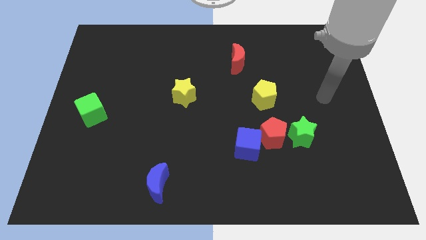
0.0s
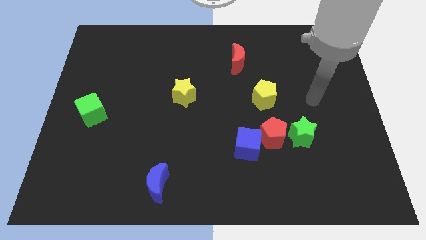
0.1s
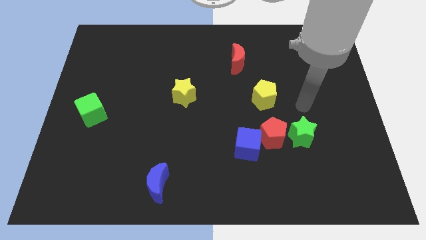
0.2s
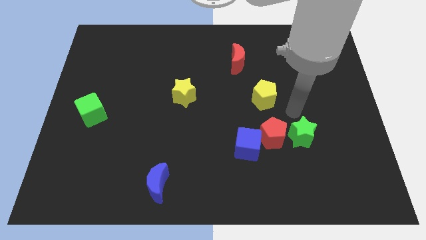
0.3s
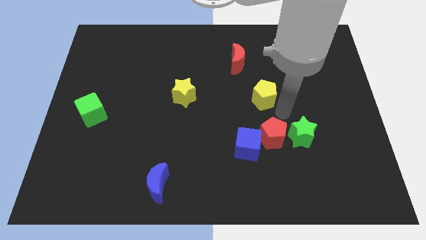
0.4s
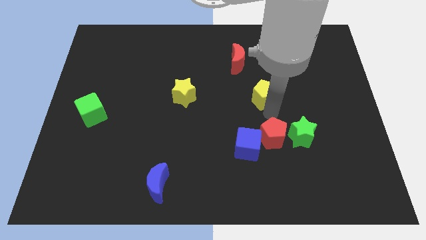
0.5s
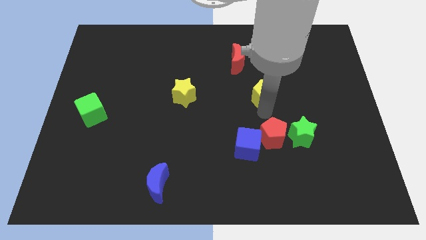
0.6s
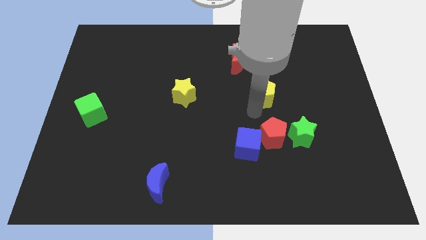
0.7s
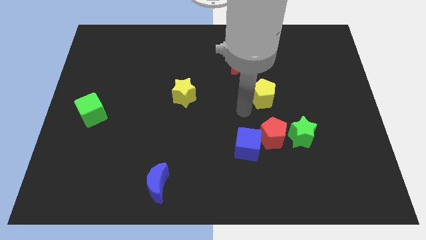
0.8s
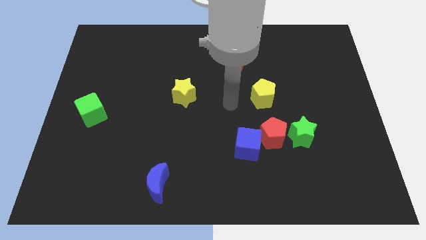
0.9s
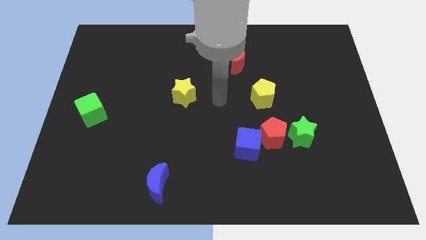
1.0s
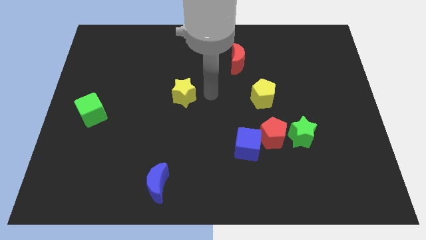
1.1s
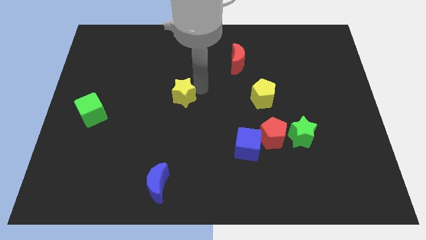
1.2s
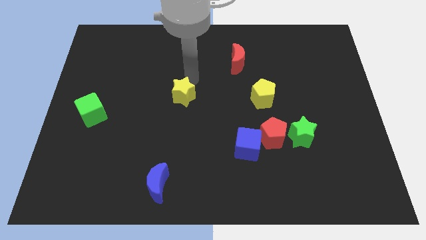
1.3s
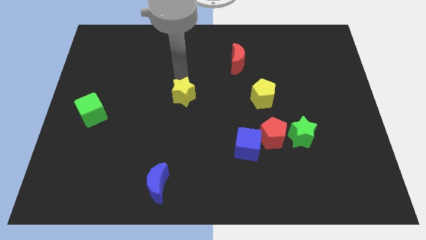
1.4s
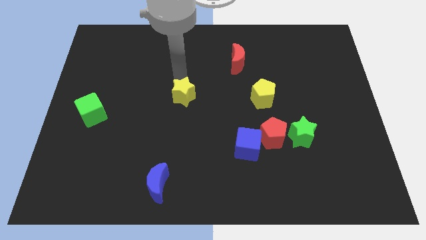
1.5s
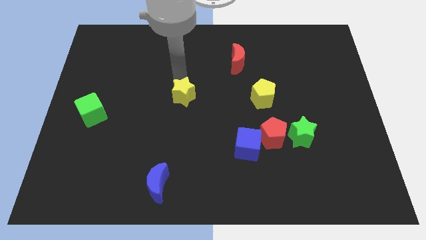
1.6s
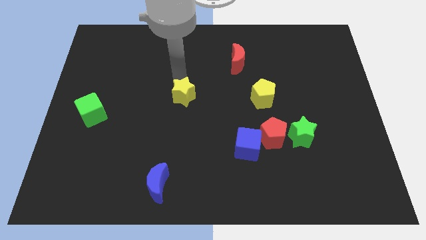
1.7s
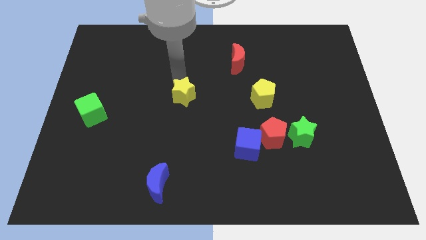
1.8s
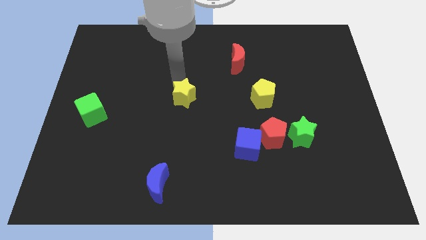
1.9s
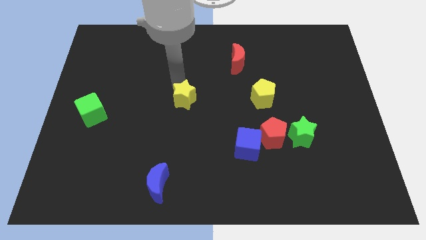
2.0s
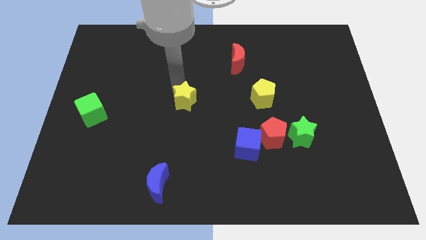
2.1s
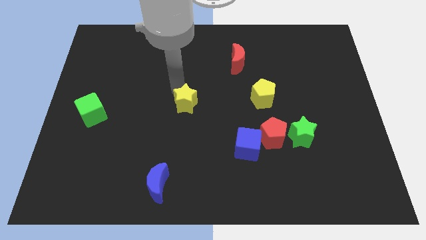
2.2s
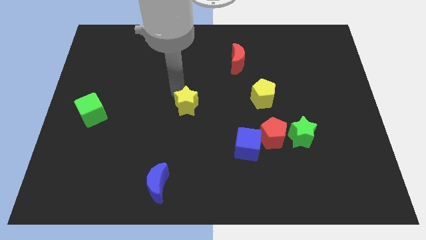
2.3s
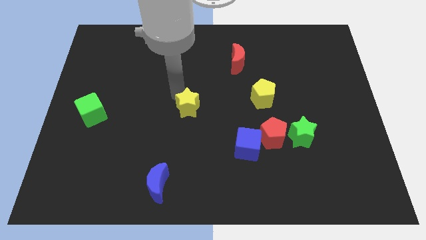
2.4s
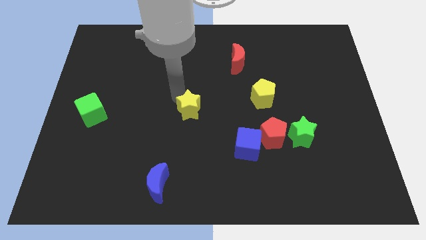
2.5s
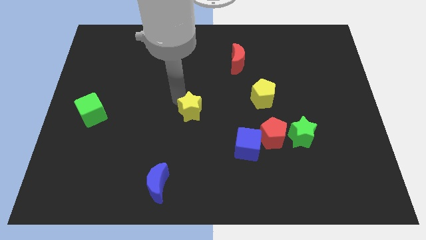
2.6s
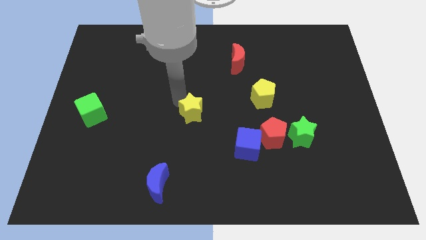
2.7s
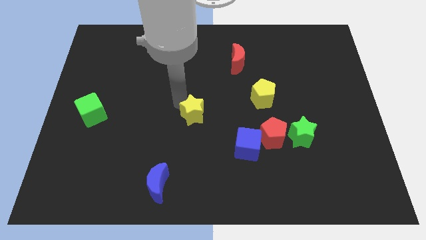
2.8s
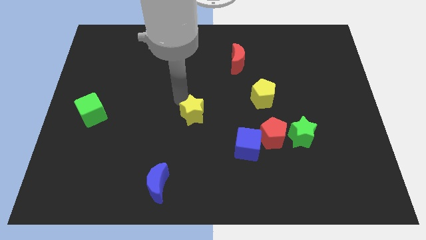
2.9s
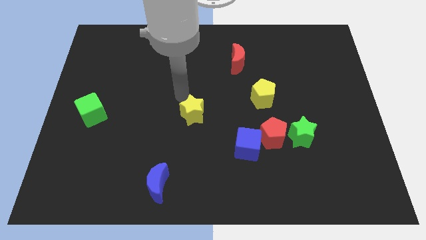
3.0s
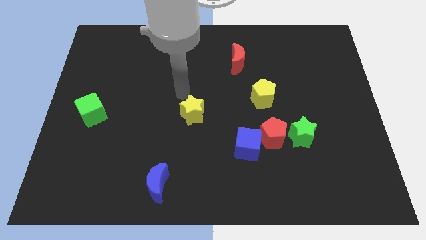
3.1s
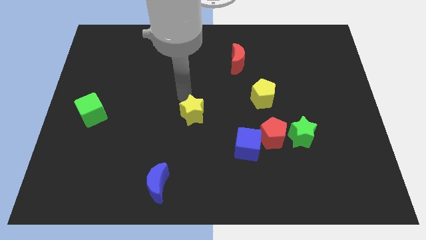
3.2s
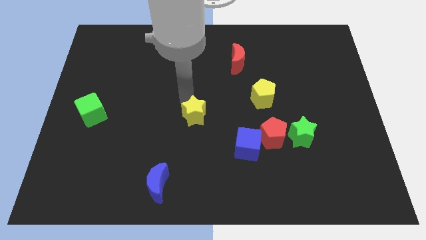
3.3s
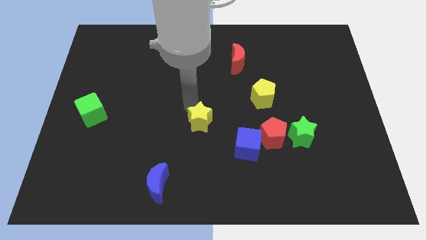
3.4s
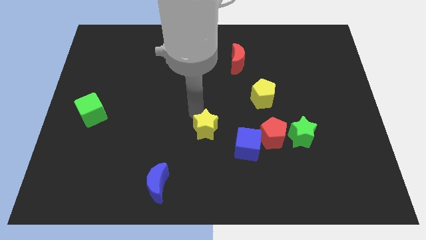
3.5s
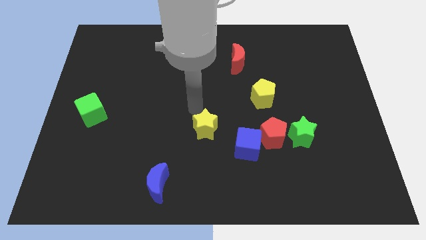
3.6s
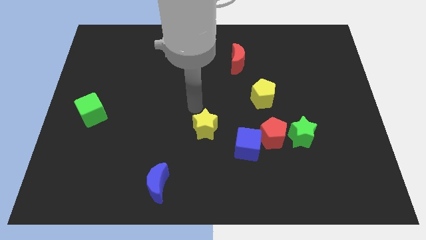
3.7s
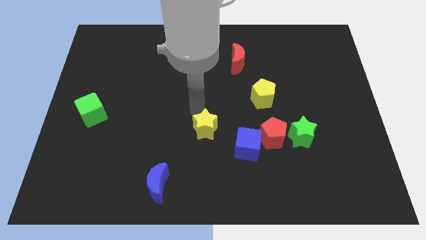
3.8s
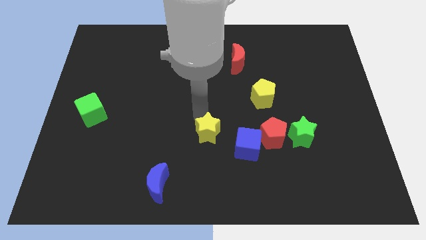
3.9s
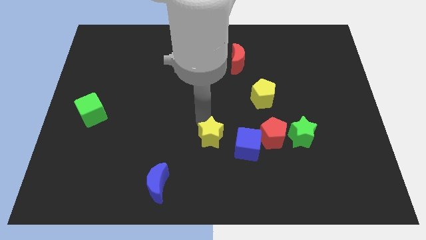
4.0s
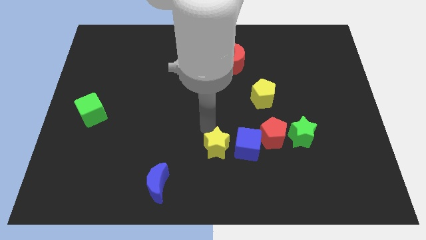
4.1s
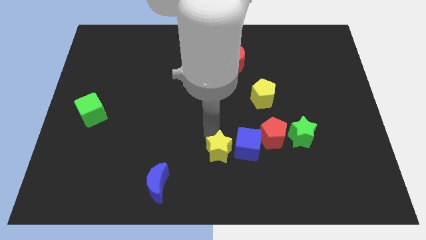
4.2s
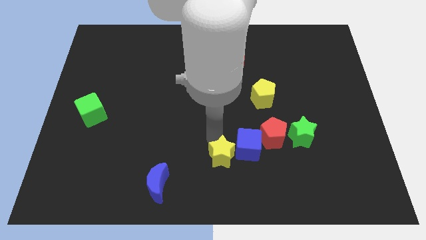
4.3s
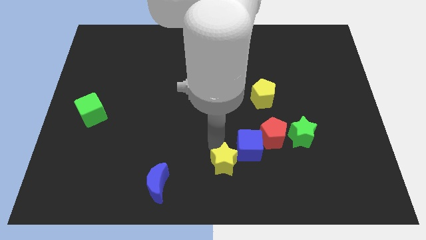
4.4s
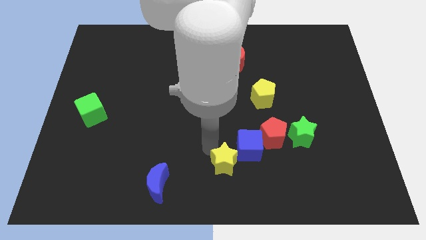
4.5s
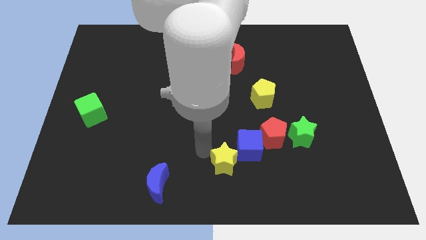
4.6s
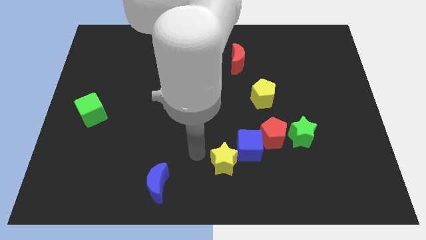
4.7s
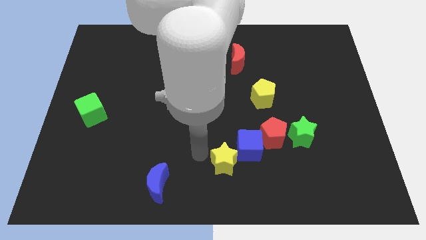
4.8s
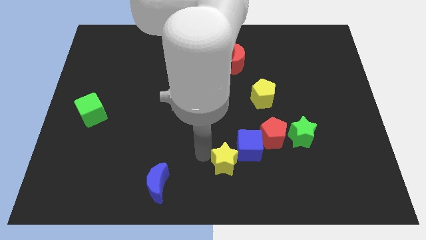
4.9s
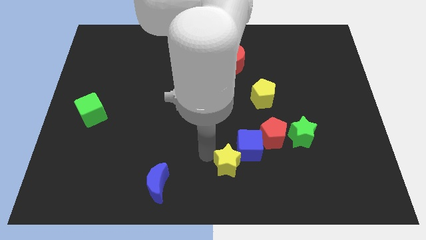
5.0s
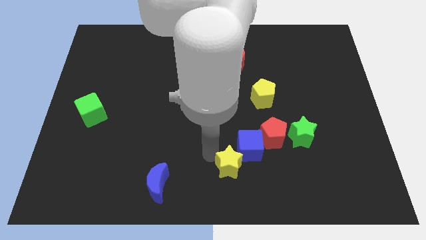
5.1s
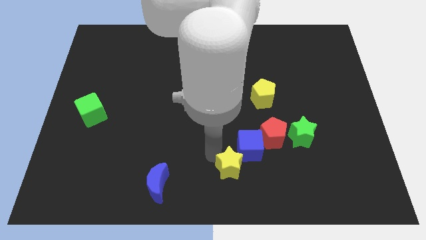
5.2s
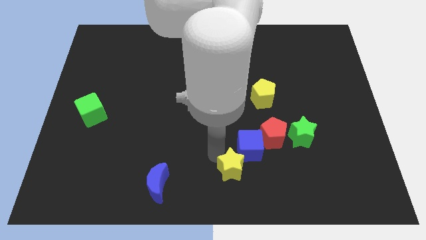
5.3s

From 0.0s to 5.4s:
push the yellow star downwards and then right

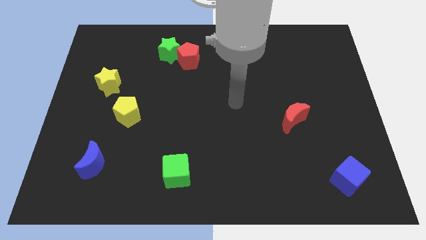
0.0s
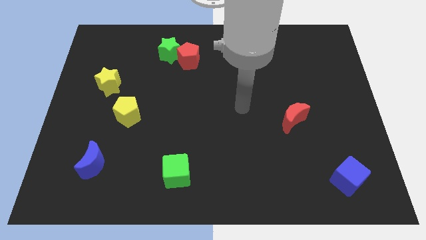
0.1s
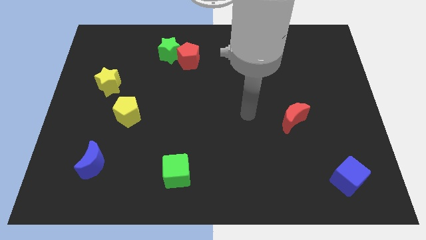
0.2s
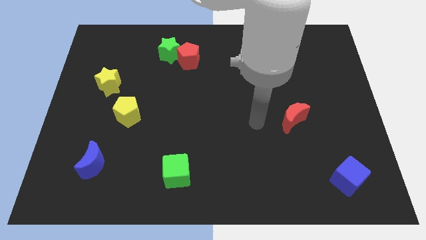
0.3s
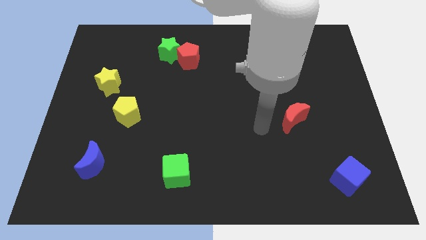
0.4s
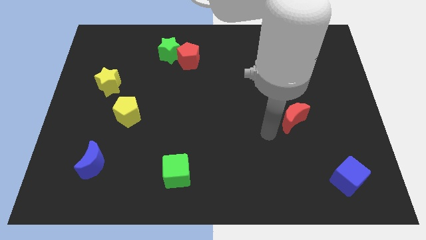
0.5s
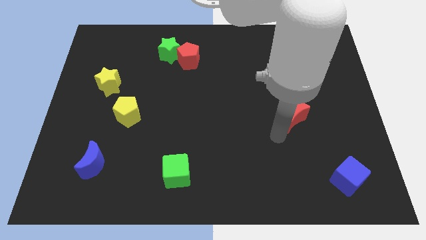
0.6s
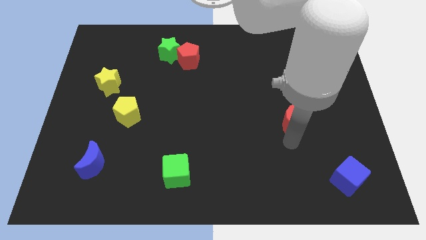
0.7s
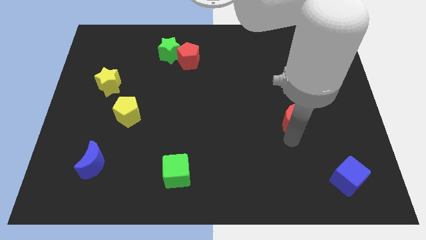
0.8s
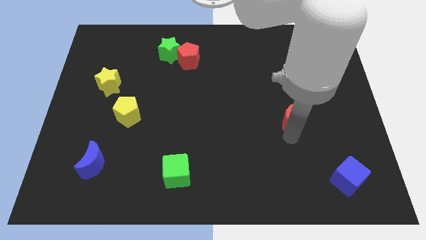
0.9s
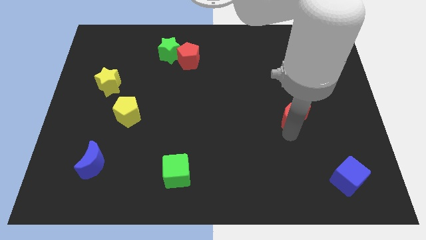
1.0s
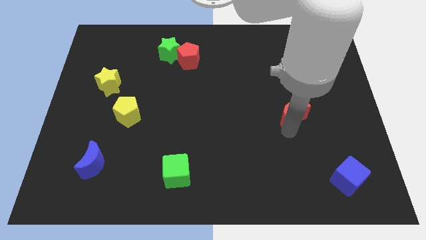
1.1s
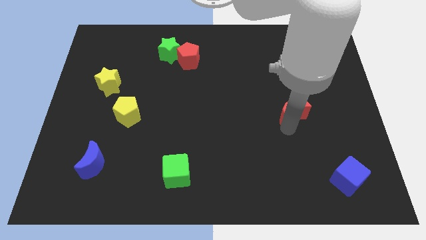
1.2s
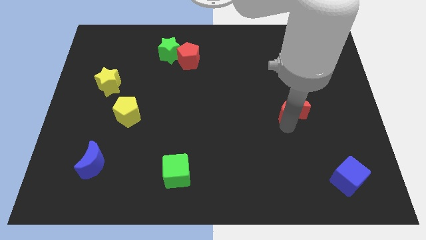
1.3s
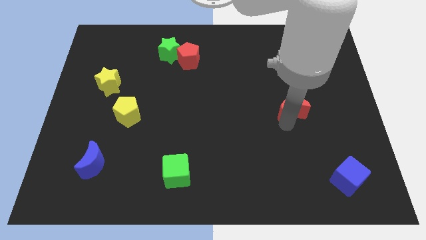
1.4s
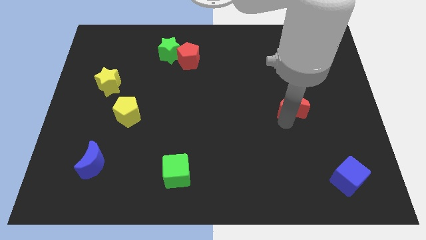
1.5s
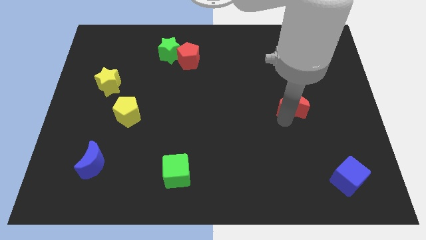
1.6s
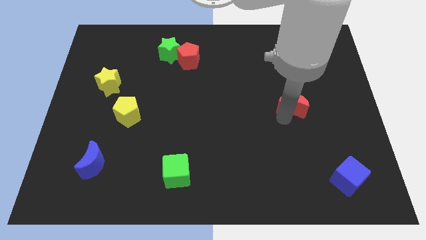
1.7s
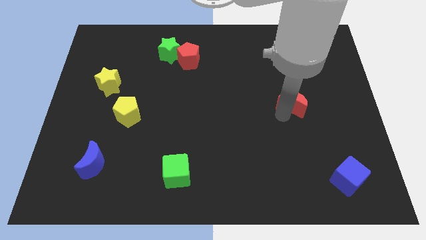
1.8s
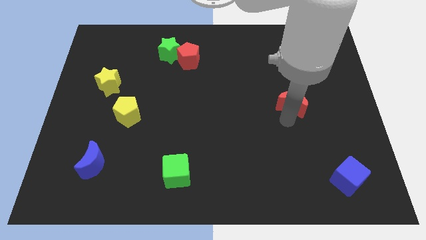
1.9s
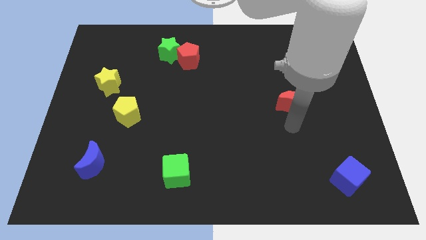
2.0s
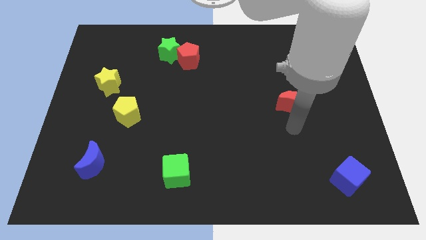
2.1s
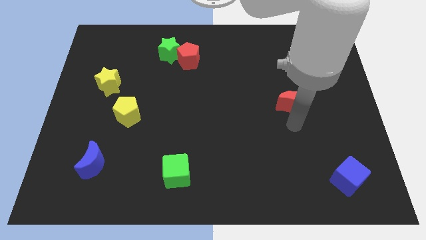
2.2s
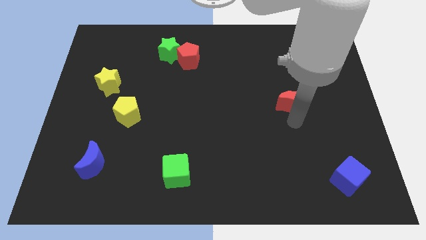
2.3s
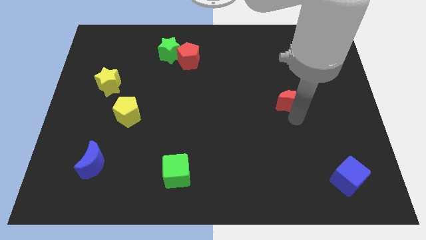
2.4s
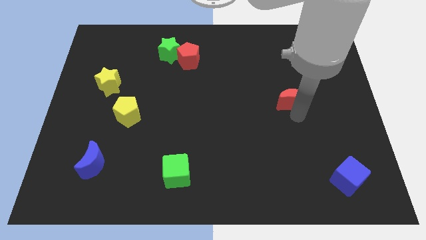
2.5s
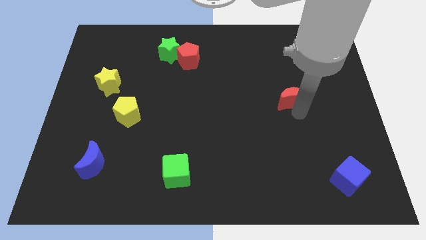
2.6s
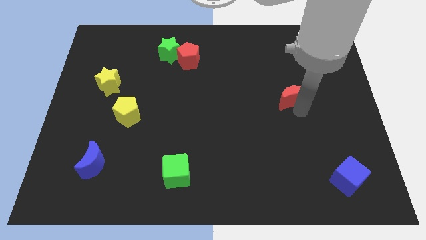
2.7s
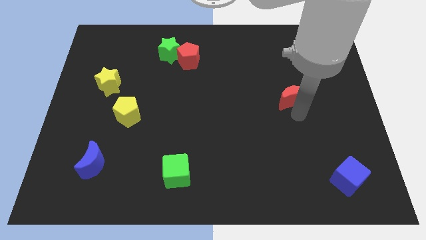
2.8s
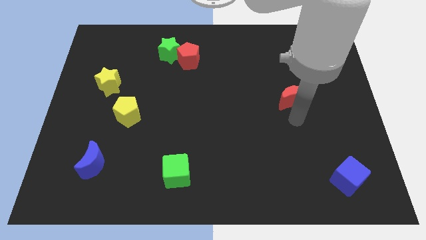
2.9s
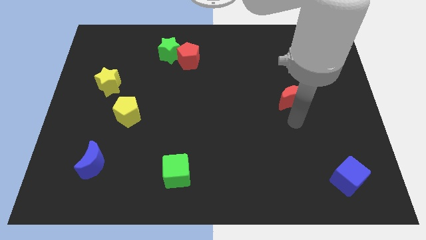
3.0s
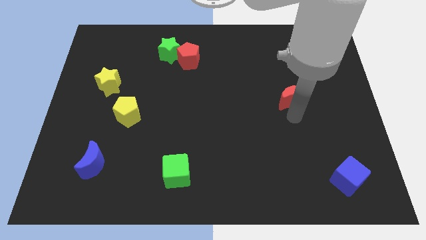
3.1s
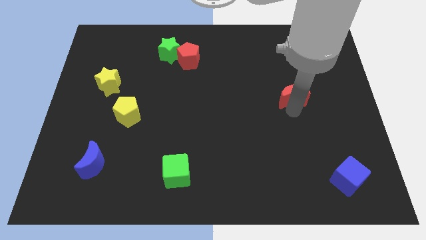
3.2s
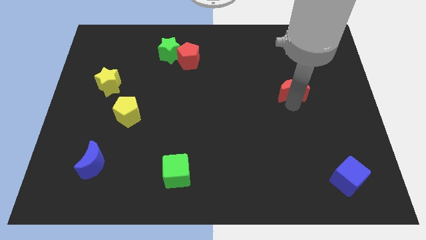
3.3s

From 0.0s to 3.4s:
move the red moon up a bit

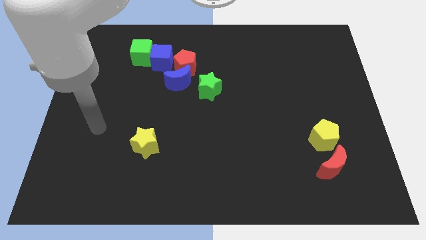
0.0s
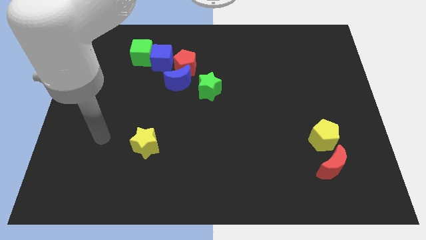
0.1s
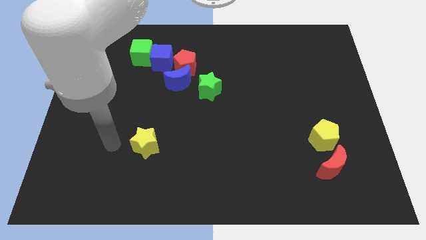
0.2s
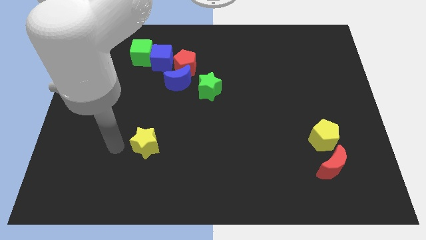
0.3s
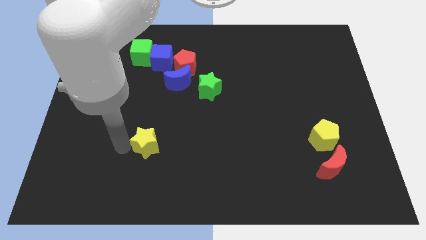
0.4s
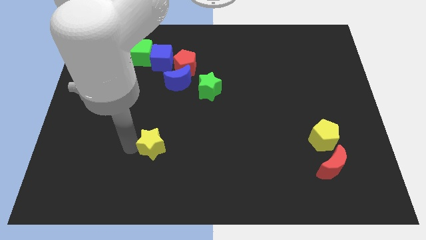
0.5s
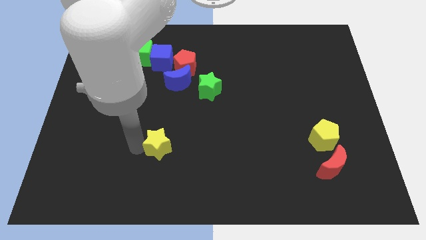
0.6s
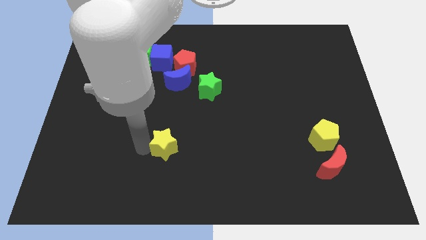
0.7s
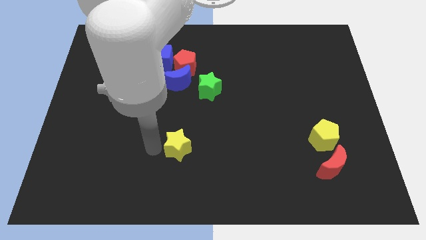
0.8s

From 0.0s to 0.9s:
slightly slide the yellow star right
